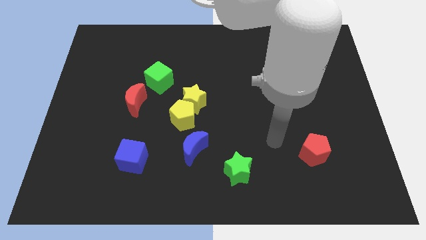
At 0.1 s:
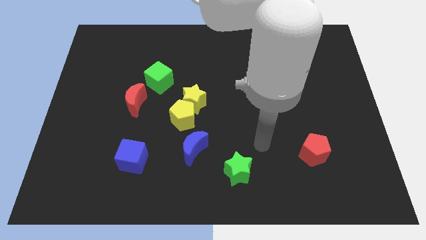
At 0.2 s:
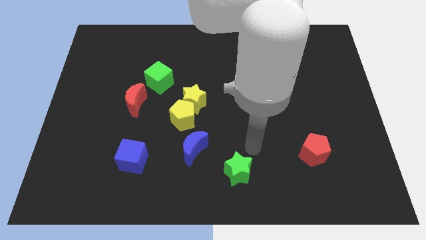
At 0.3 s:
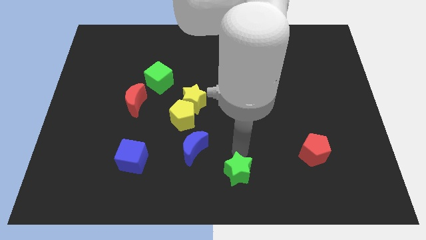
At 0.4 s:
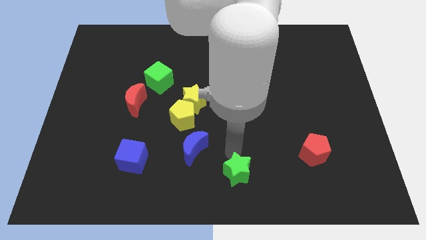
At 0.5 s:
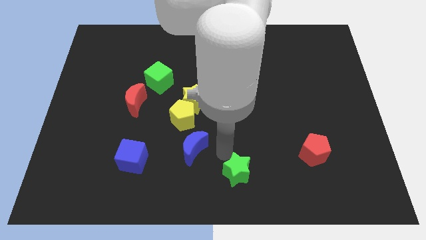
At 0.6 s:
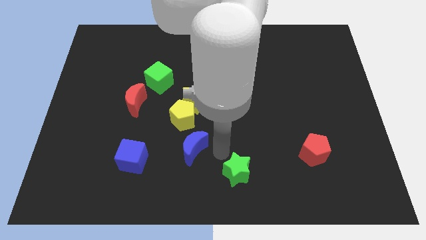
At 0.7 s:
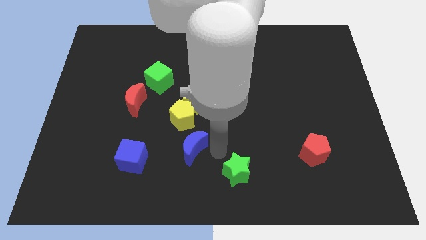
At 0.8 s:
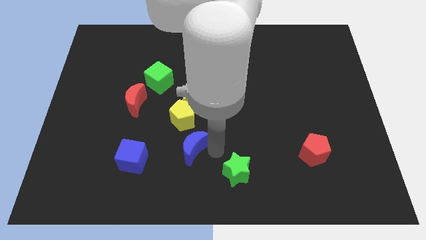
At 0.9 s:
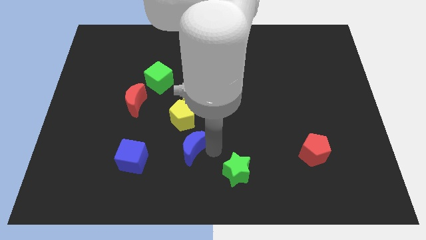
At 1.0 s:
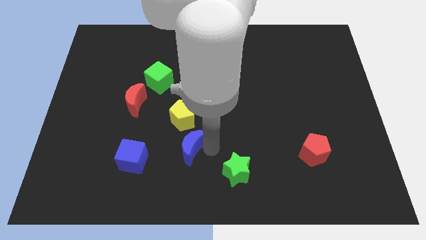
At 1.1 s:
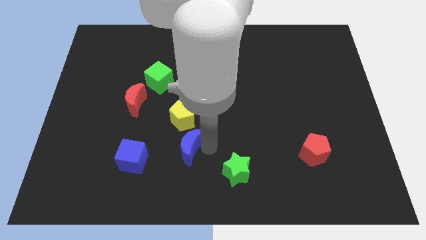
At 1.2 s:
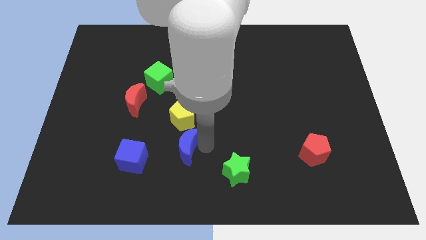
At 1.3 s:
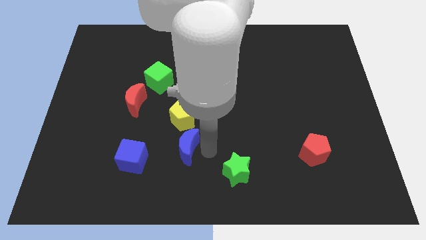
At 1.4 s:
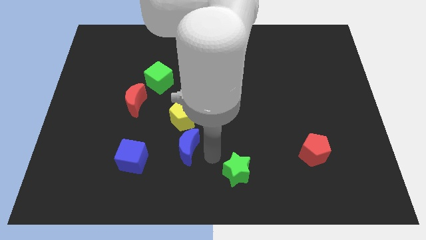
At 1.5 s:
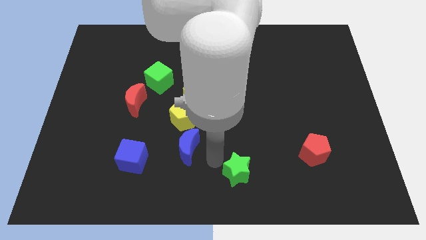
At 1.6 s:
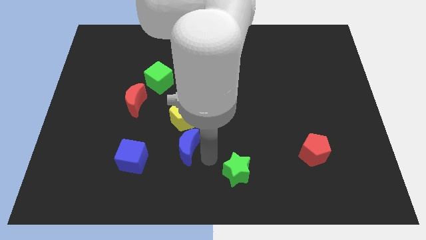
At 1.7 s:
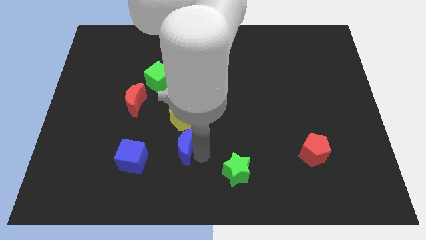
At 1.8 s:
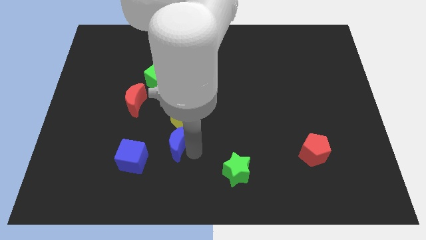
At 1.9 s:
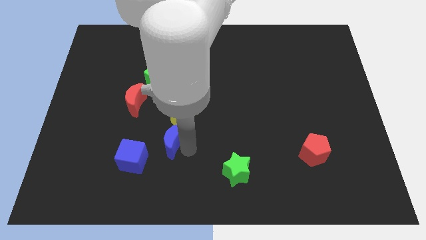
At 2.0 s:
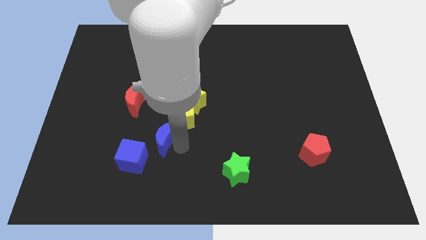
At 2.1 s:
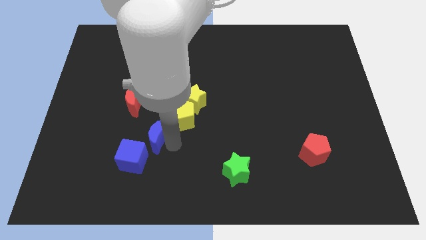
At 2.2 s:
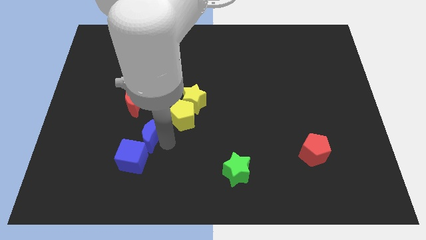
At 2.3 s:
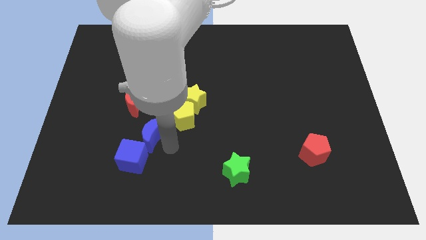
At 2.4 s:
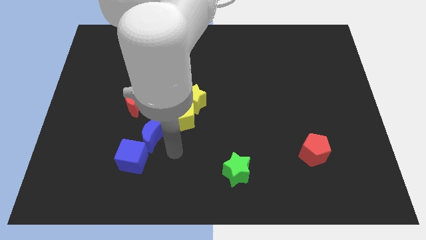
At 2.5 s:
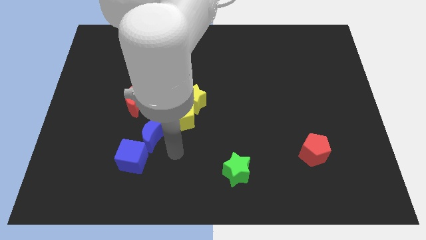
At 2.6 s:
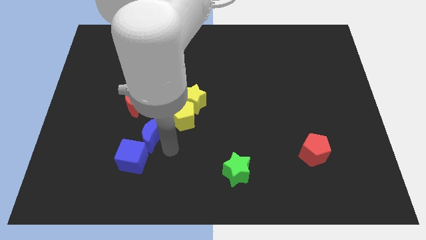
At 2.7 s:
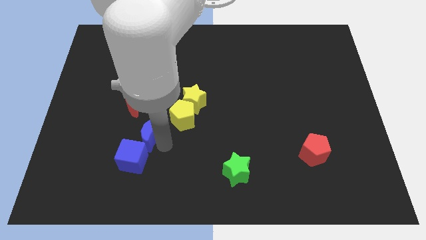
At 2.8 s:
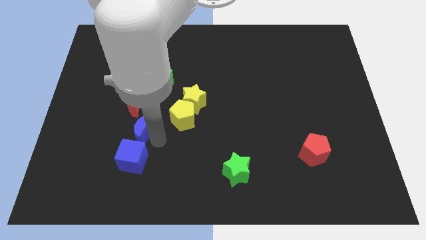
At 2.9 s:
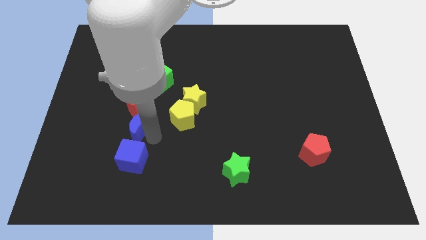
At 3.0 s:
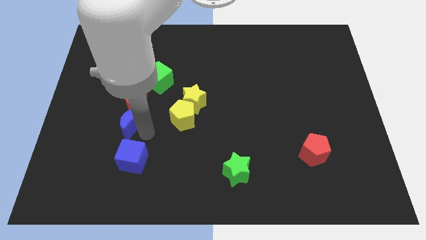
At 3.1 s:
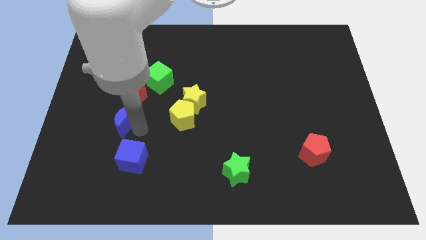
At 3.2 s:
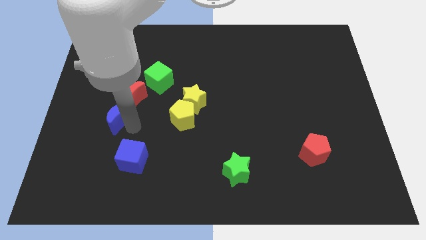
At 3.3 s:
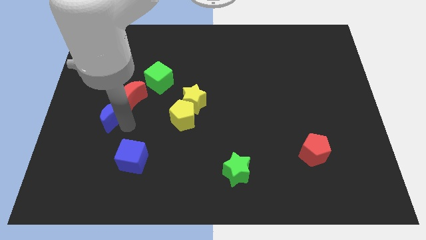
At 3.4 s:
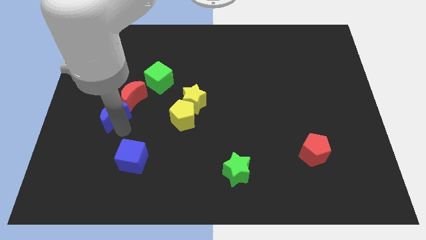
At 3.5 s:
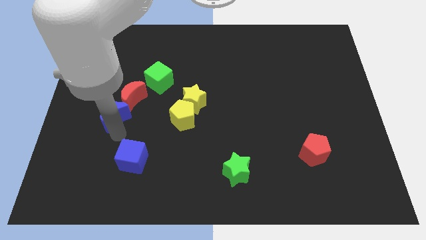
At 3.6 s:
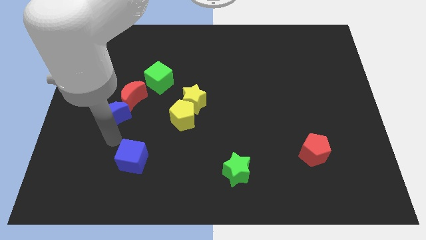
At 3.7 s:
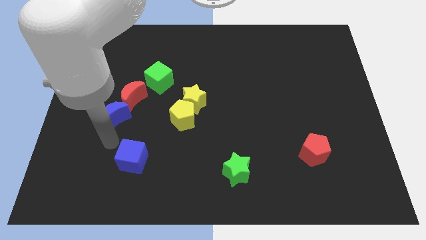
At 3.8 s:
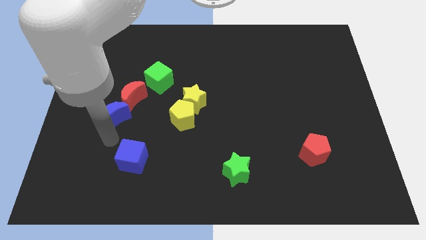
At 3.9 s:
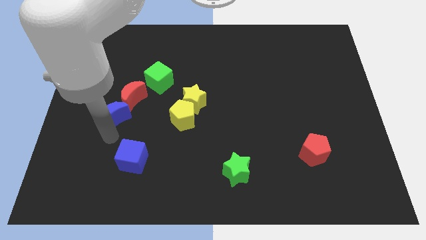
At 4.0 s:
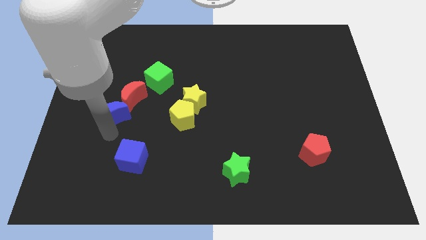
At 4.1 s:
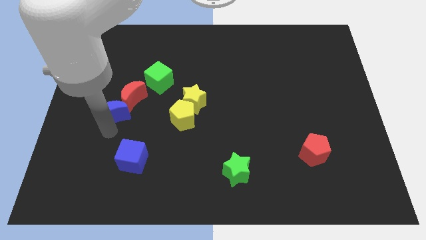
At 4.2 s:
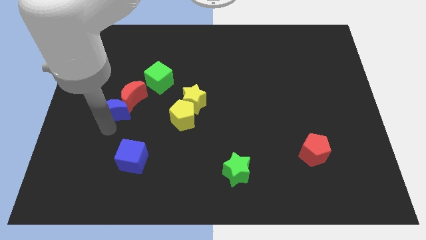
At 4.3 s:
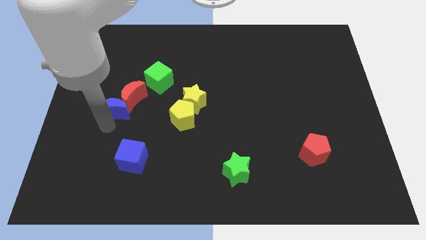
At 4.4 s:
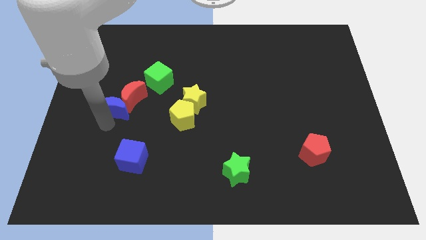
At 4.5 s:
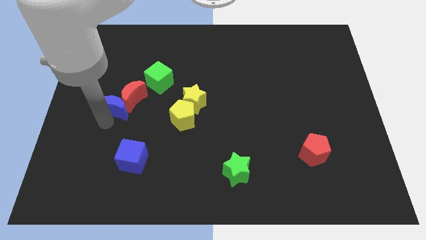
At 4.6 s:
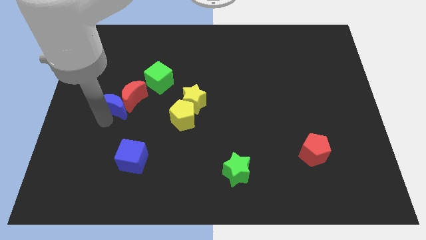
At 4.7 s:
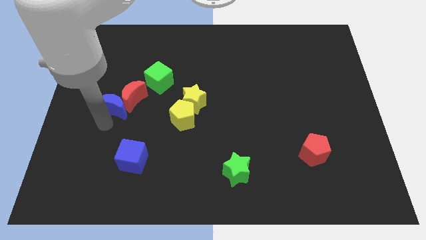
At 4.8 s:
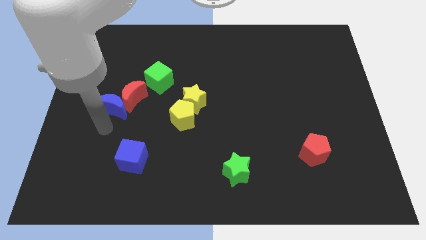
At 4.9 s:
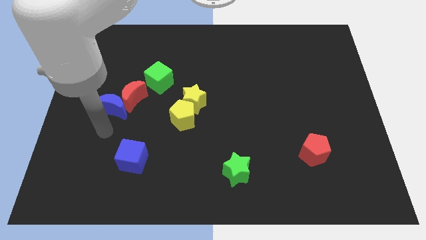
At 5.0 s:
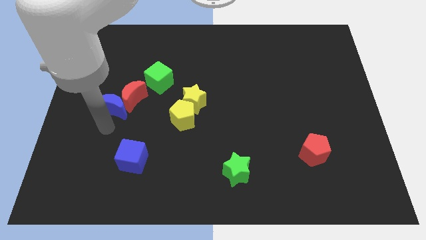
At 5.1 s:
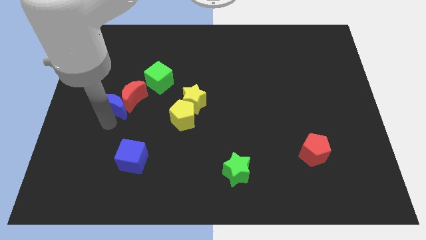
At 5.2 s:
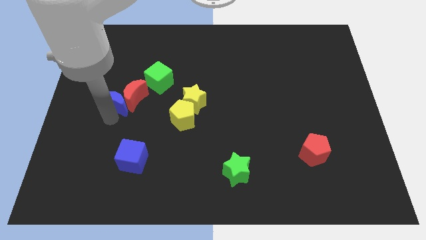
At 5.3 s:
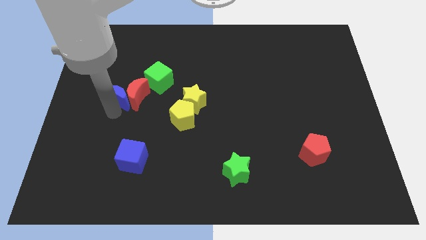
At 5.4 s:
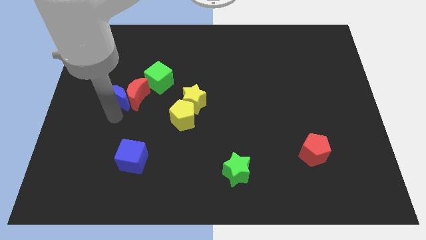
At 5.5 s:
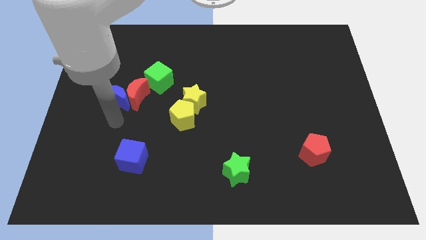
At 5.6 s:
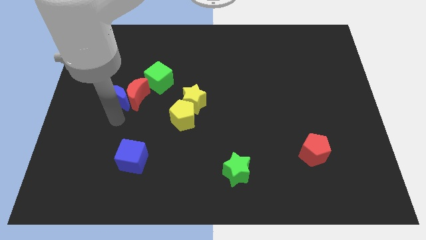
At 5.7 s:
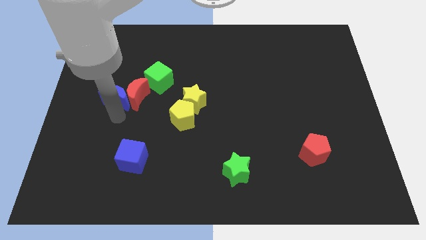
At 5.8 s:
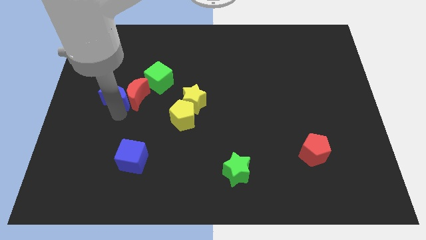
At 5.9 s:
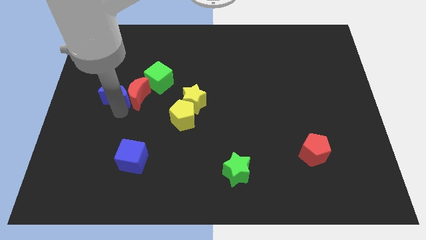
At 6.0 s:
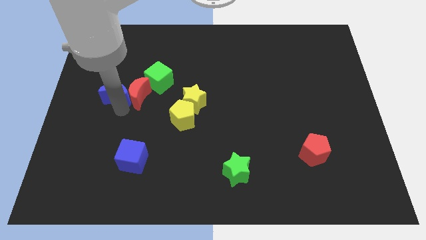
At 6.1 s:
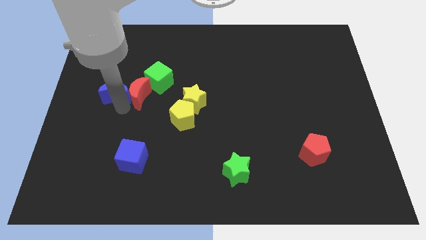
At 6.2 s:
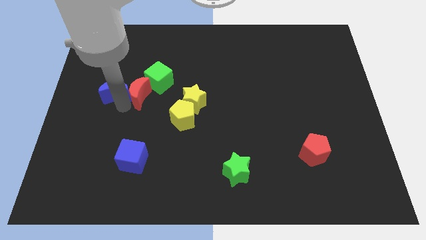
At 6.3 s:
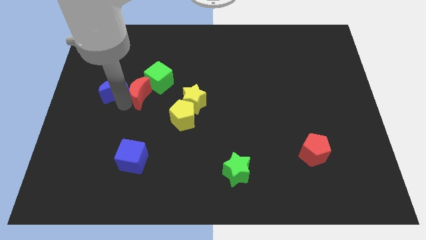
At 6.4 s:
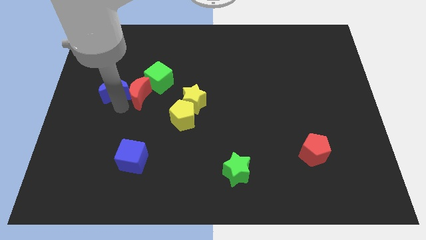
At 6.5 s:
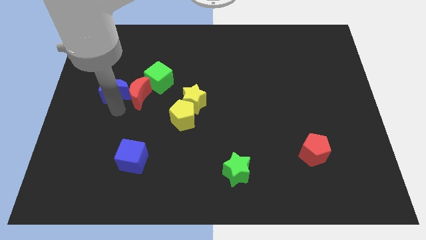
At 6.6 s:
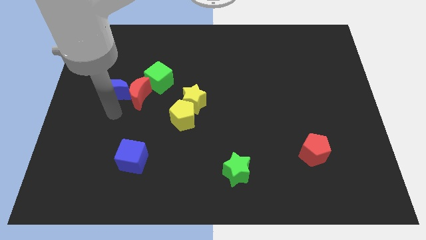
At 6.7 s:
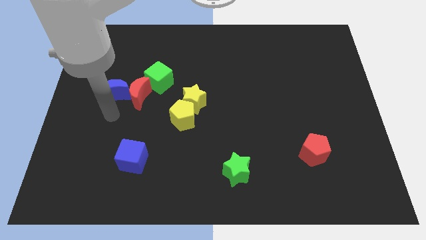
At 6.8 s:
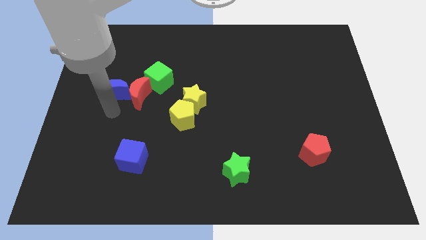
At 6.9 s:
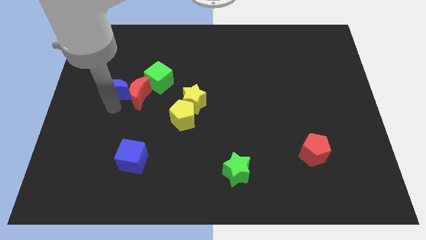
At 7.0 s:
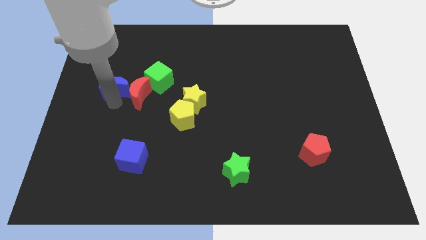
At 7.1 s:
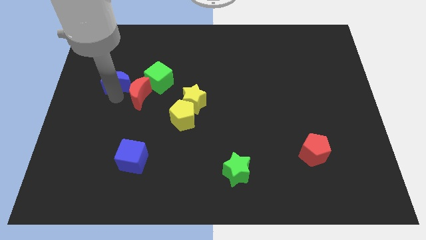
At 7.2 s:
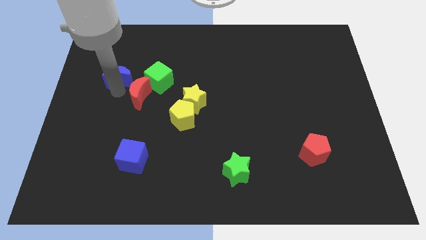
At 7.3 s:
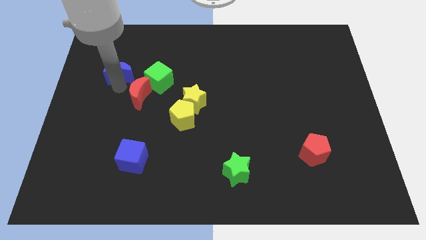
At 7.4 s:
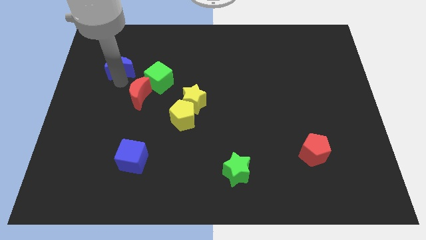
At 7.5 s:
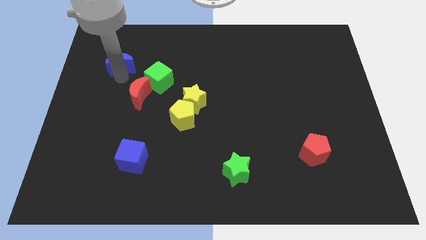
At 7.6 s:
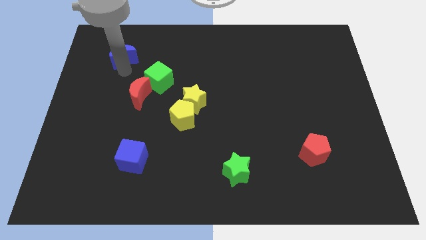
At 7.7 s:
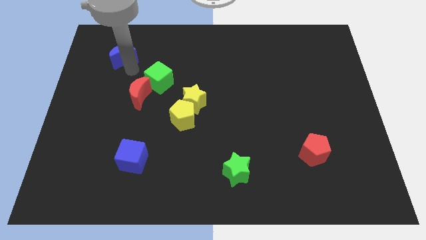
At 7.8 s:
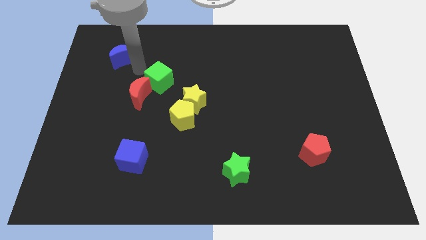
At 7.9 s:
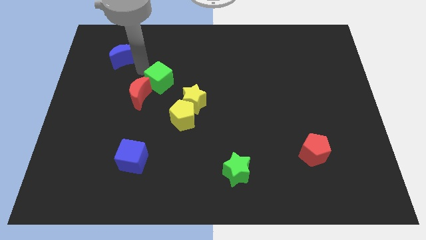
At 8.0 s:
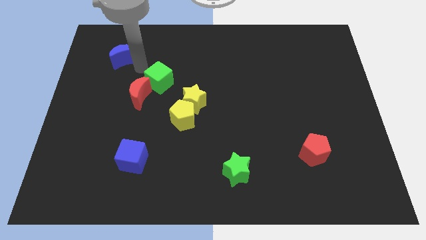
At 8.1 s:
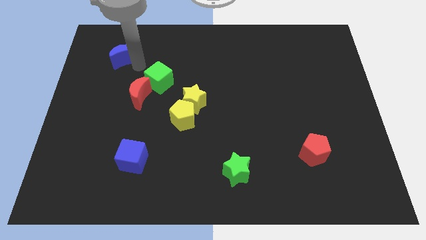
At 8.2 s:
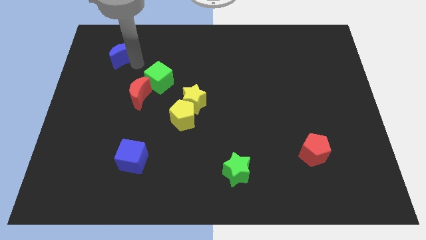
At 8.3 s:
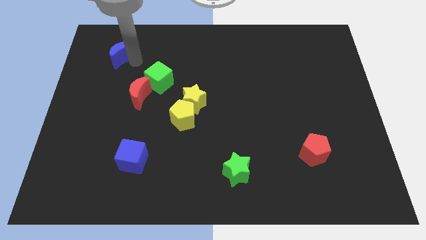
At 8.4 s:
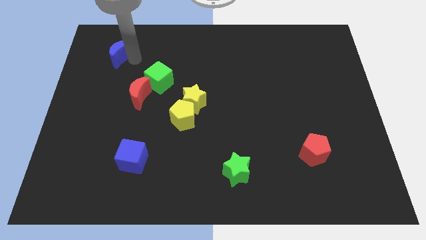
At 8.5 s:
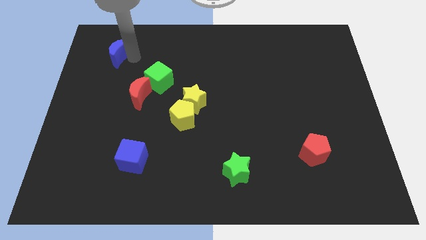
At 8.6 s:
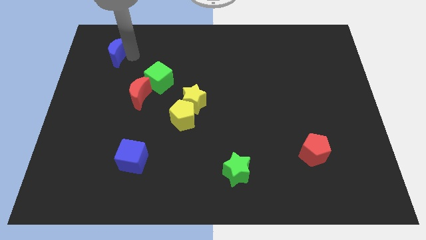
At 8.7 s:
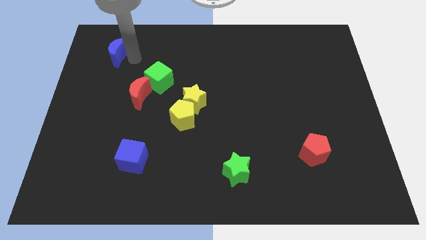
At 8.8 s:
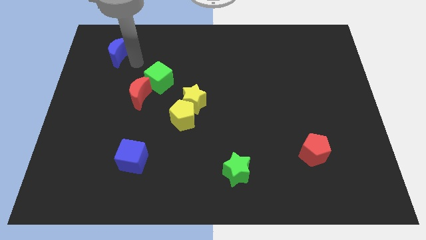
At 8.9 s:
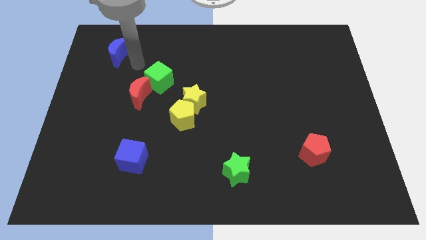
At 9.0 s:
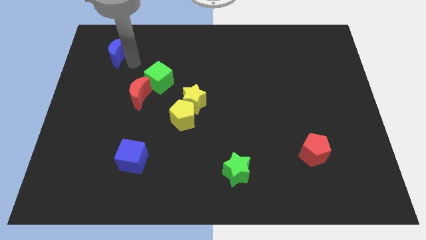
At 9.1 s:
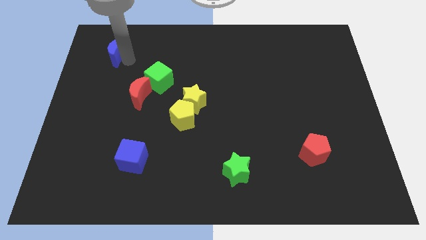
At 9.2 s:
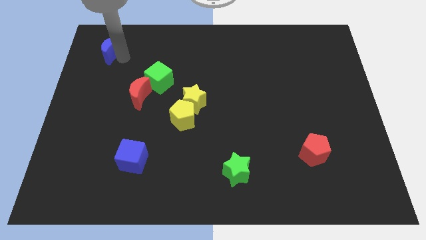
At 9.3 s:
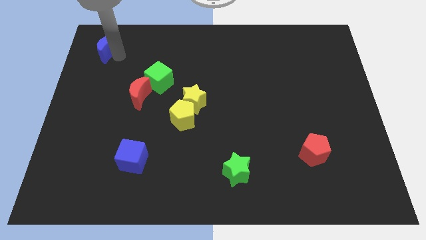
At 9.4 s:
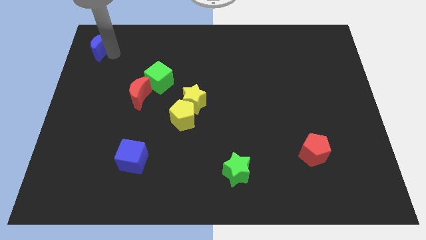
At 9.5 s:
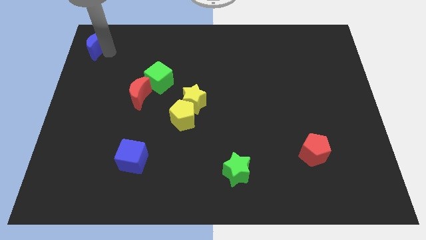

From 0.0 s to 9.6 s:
slide the blue moon to the top left
